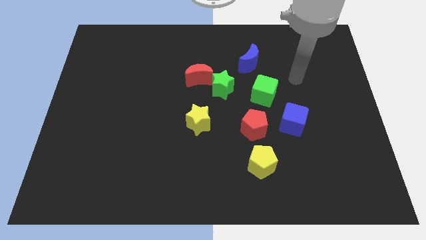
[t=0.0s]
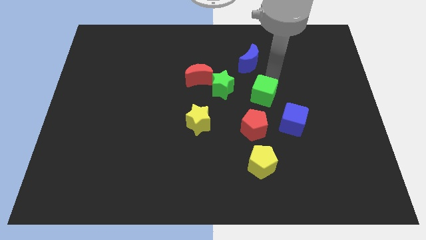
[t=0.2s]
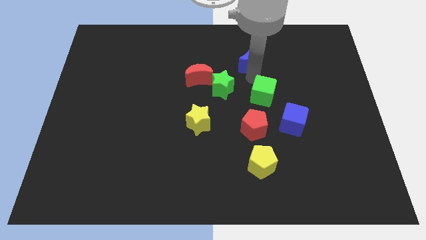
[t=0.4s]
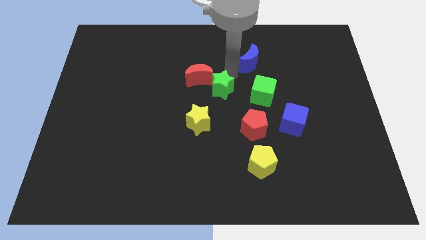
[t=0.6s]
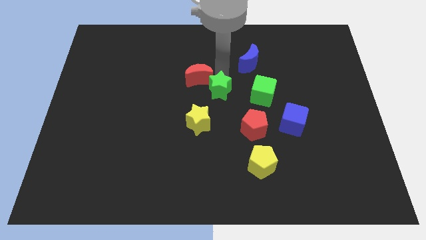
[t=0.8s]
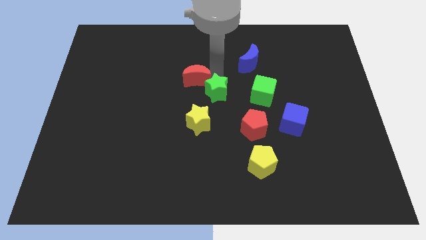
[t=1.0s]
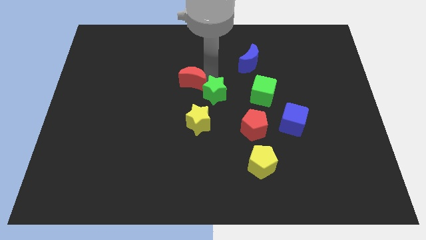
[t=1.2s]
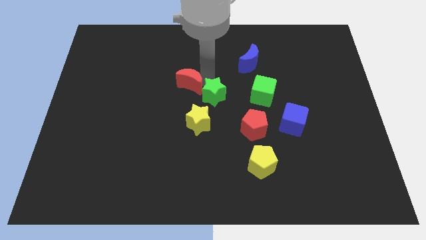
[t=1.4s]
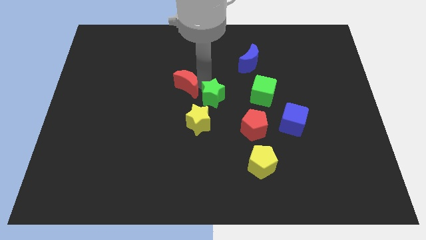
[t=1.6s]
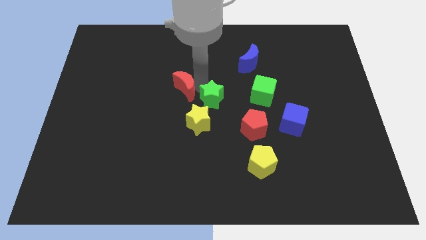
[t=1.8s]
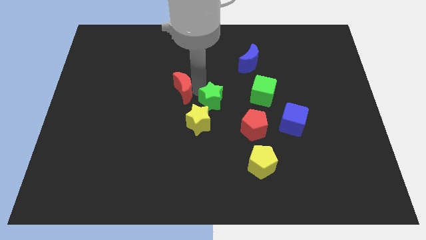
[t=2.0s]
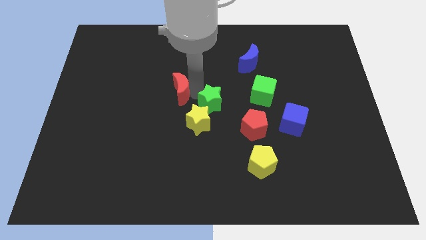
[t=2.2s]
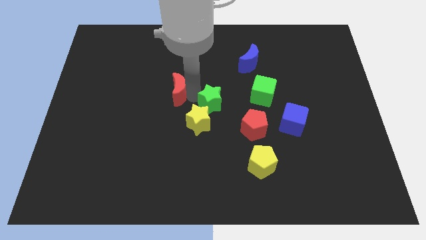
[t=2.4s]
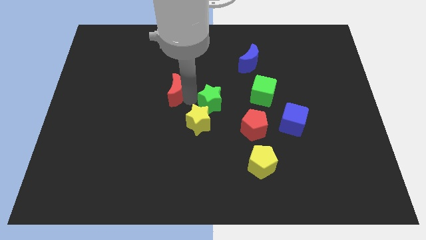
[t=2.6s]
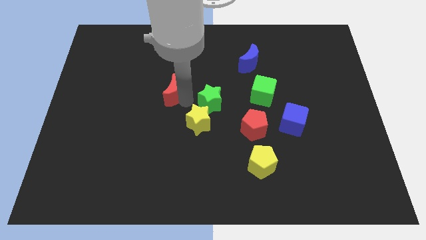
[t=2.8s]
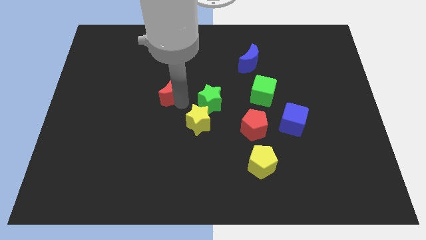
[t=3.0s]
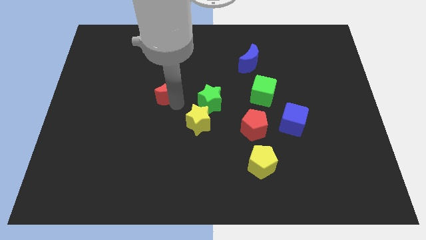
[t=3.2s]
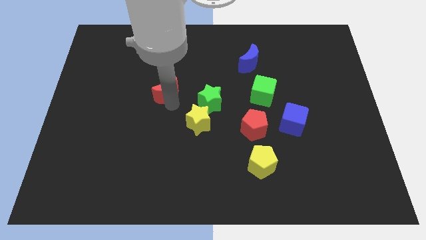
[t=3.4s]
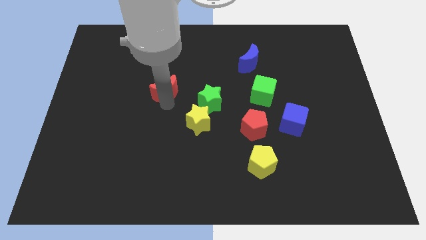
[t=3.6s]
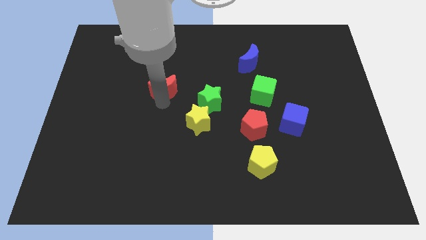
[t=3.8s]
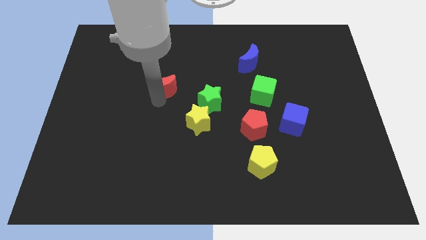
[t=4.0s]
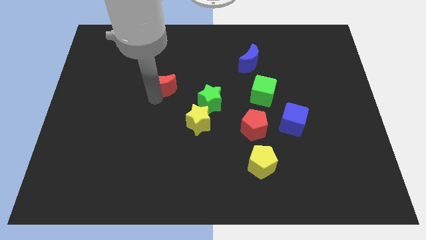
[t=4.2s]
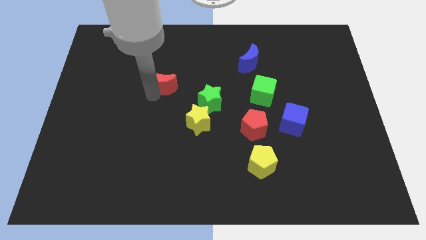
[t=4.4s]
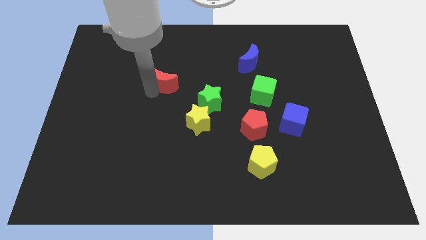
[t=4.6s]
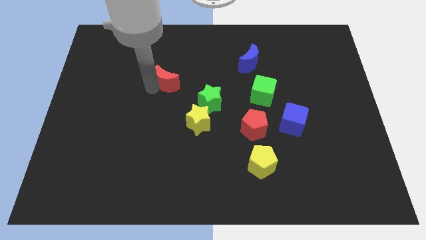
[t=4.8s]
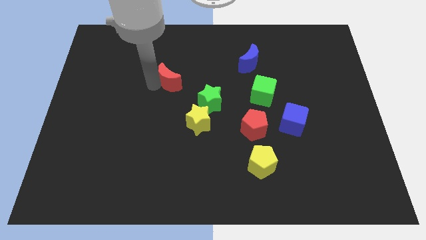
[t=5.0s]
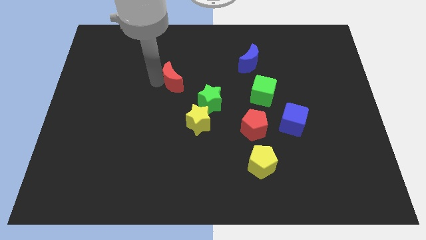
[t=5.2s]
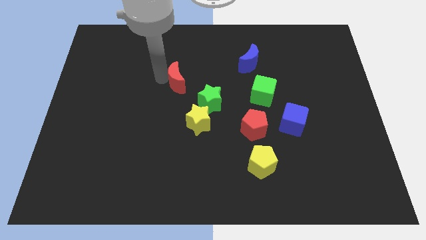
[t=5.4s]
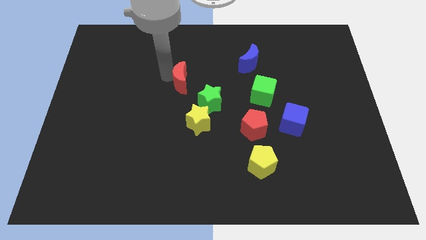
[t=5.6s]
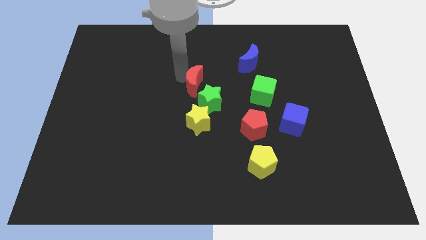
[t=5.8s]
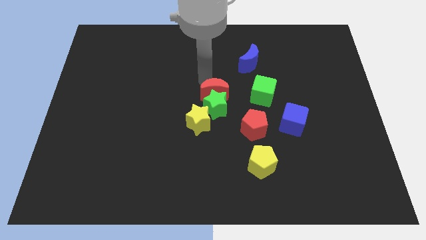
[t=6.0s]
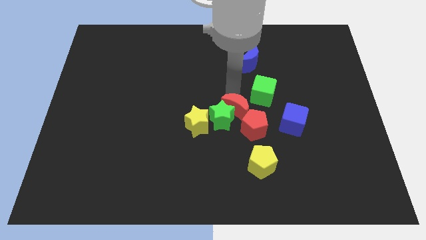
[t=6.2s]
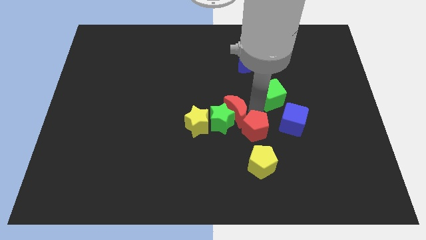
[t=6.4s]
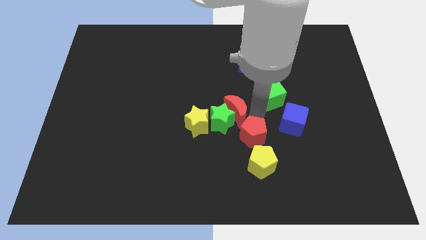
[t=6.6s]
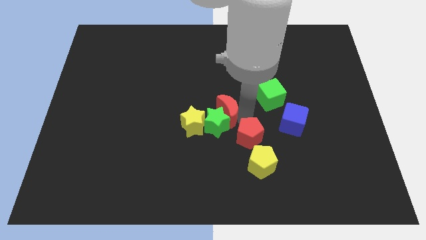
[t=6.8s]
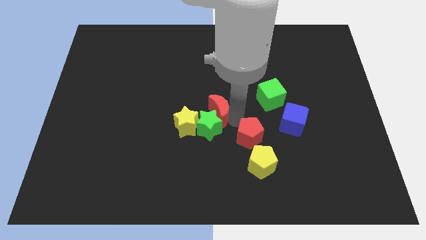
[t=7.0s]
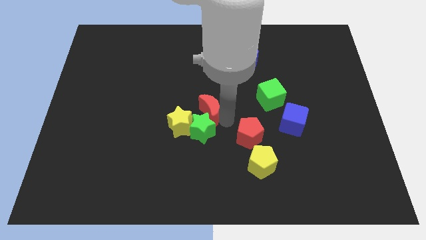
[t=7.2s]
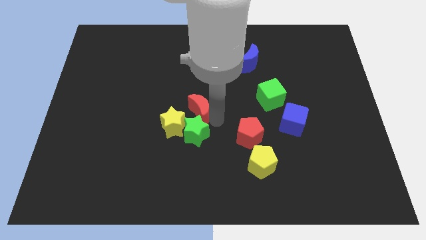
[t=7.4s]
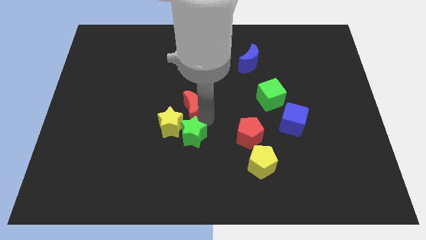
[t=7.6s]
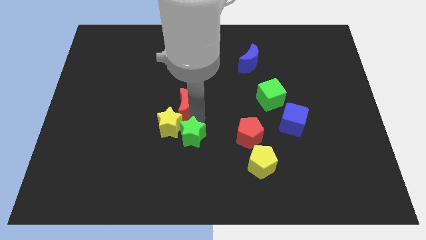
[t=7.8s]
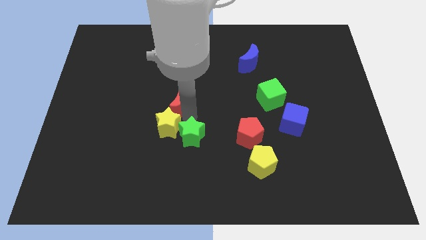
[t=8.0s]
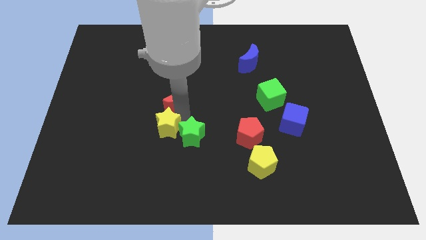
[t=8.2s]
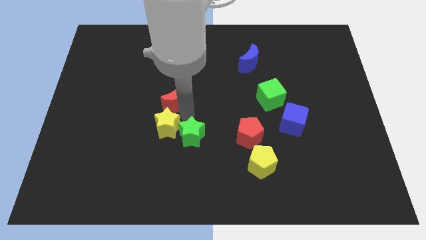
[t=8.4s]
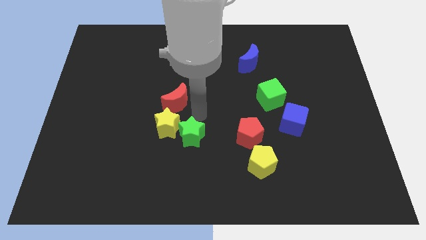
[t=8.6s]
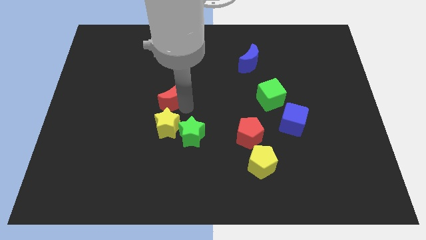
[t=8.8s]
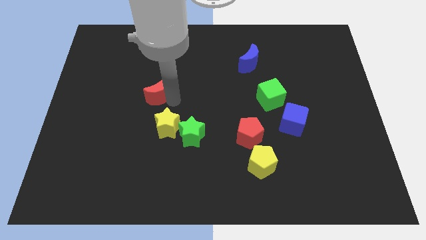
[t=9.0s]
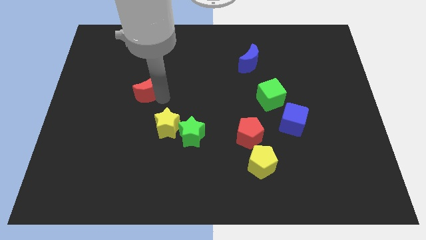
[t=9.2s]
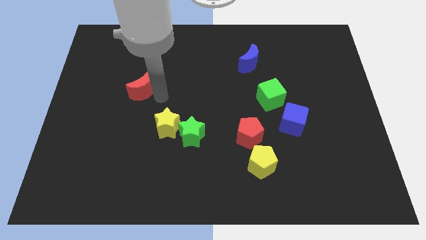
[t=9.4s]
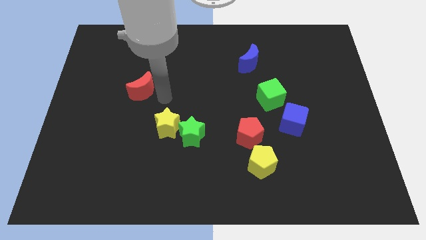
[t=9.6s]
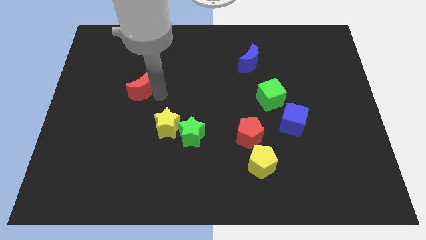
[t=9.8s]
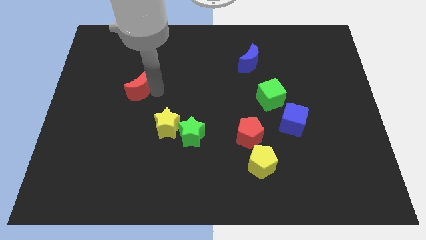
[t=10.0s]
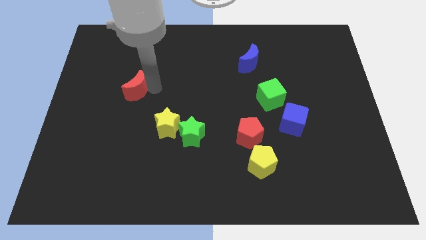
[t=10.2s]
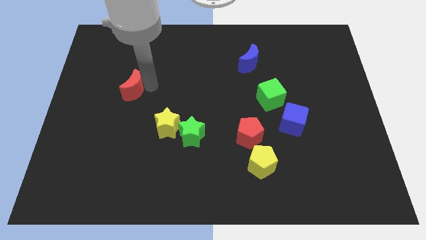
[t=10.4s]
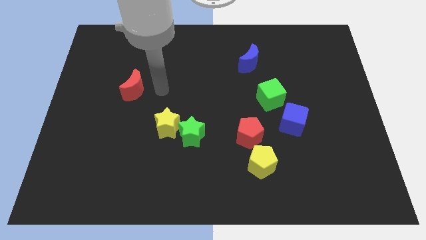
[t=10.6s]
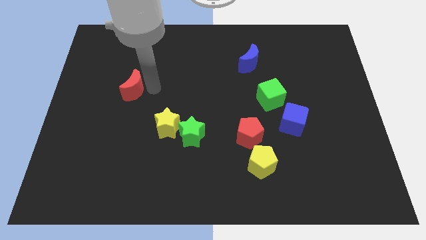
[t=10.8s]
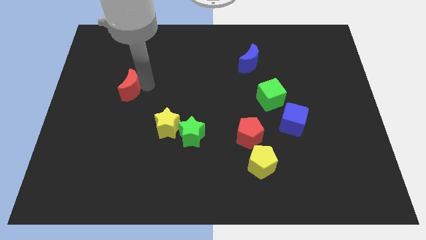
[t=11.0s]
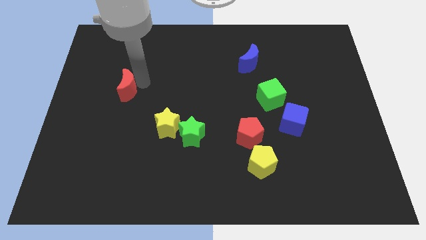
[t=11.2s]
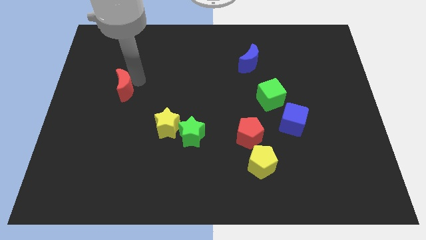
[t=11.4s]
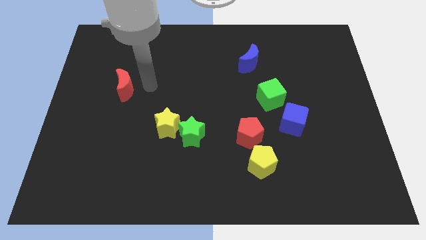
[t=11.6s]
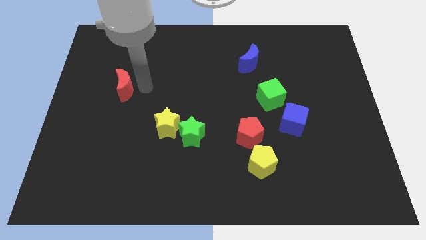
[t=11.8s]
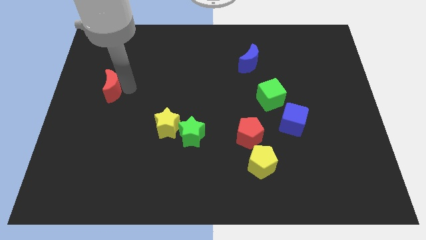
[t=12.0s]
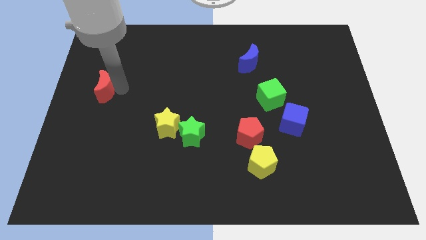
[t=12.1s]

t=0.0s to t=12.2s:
put the red moon to the center left

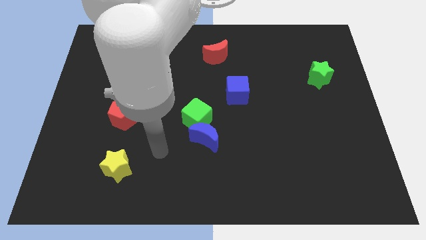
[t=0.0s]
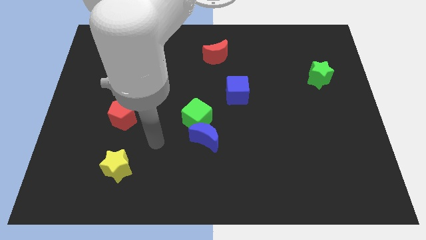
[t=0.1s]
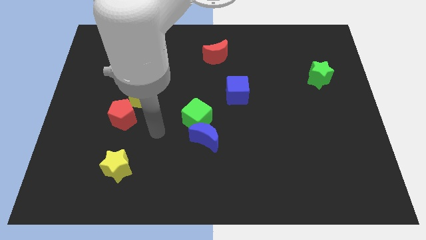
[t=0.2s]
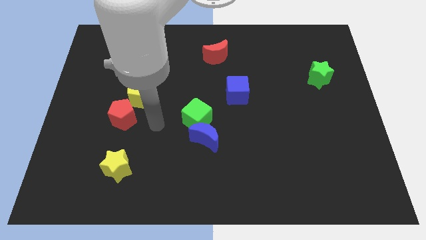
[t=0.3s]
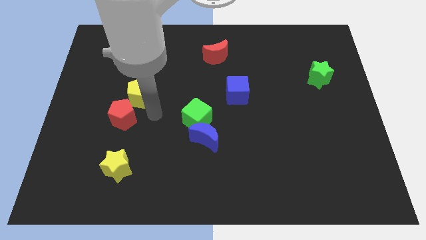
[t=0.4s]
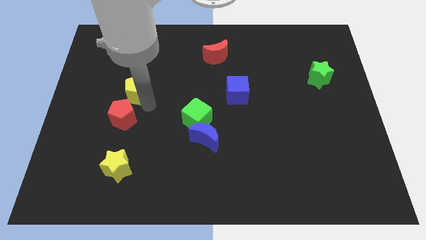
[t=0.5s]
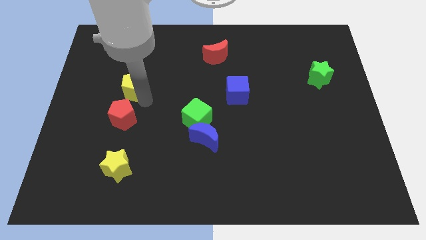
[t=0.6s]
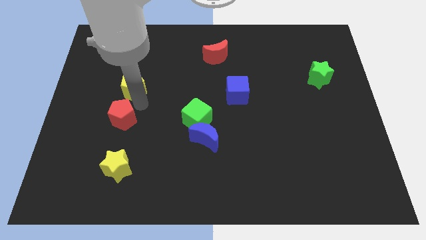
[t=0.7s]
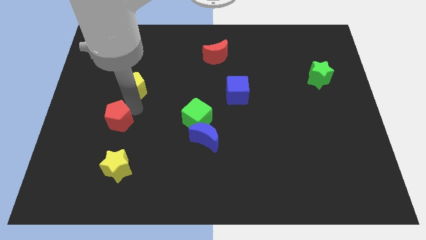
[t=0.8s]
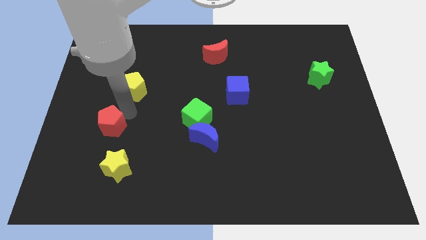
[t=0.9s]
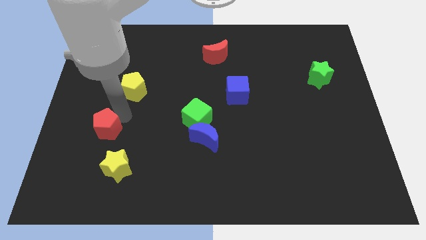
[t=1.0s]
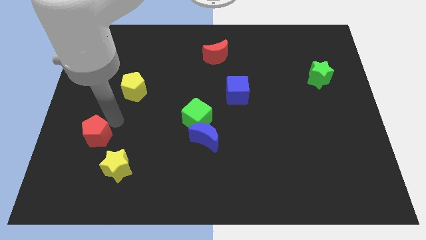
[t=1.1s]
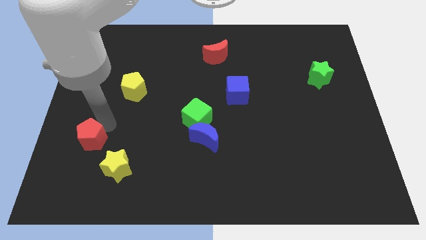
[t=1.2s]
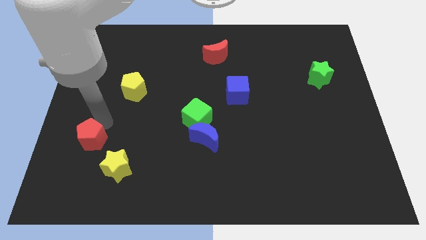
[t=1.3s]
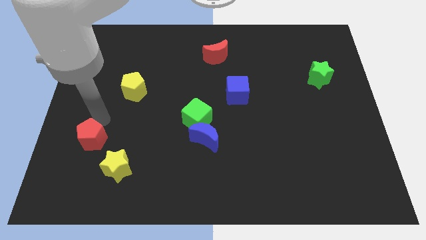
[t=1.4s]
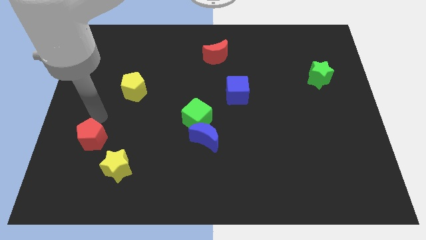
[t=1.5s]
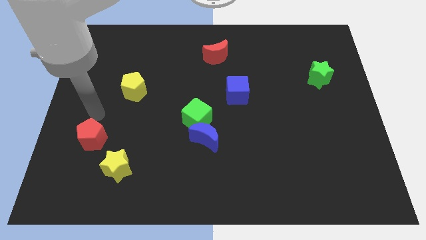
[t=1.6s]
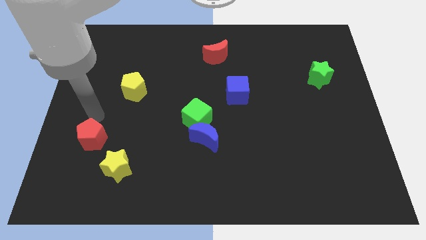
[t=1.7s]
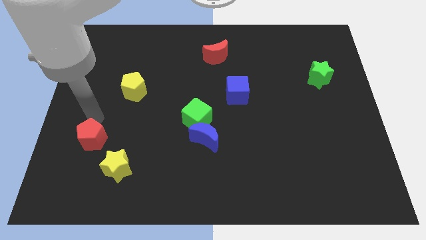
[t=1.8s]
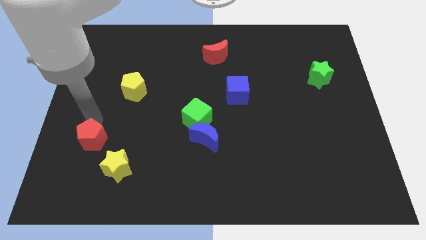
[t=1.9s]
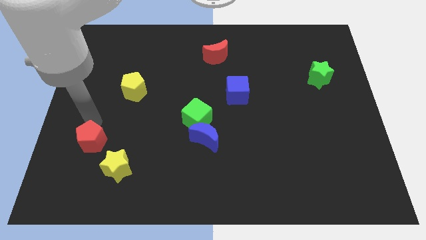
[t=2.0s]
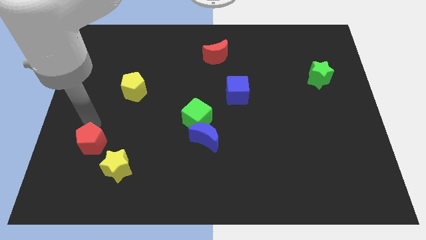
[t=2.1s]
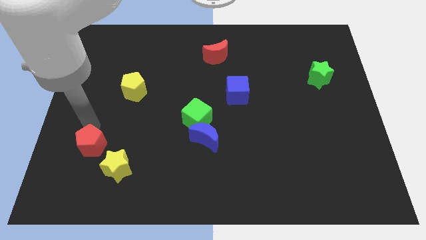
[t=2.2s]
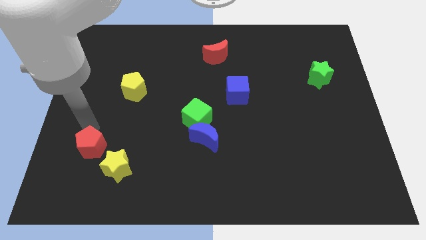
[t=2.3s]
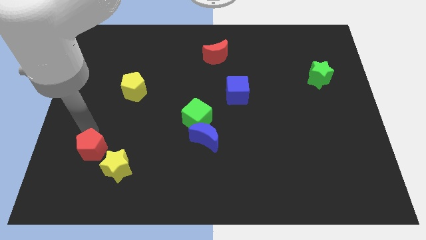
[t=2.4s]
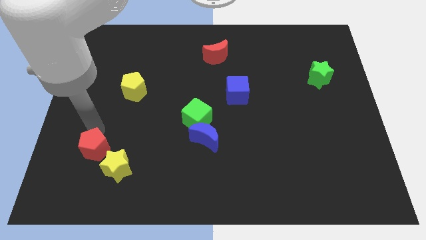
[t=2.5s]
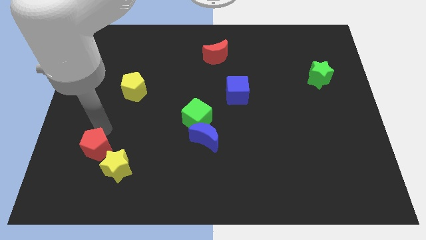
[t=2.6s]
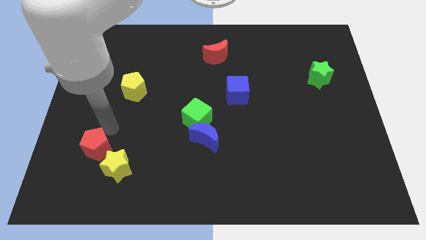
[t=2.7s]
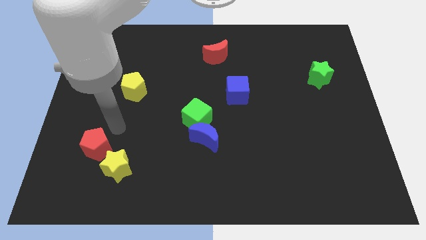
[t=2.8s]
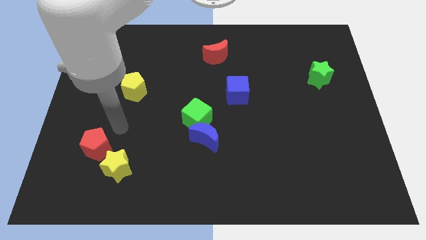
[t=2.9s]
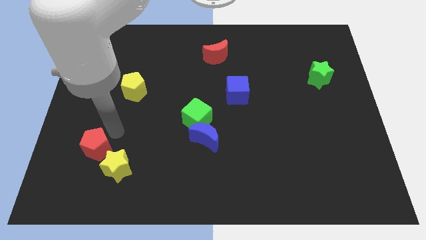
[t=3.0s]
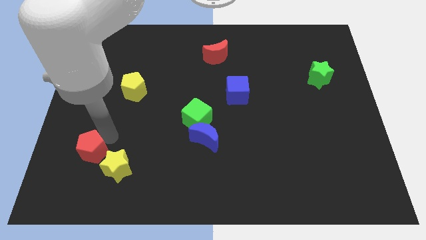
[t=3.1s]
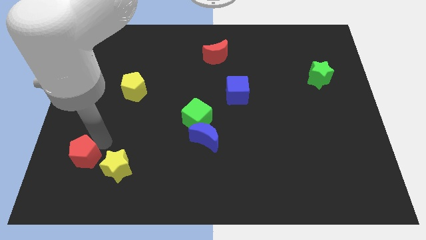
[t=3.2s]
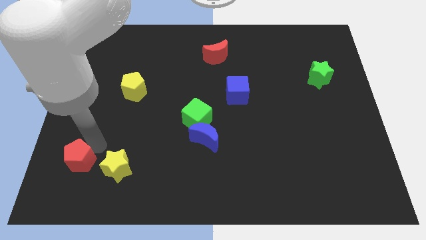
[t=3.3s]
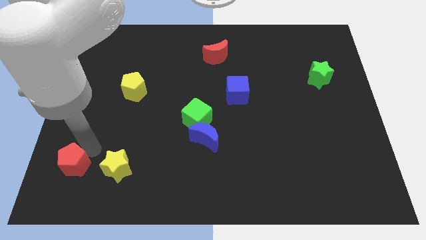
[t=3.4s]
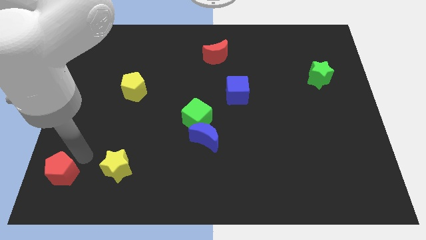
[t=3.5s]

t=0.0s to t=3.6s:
put the red pentagon to the bottom left
